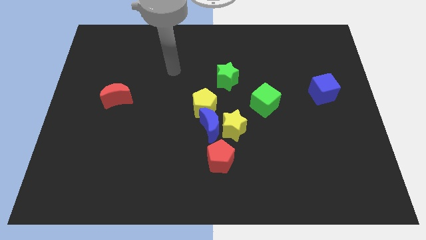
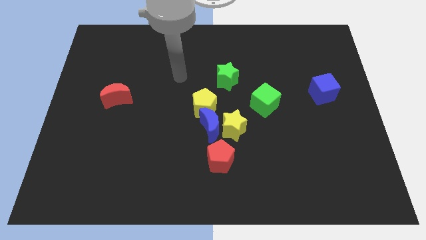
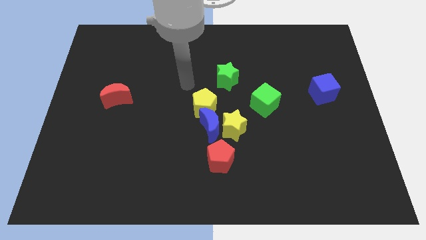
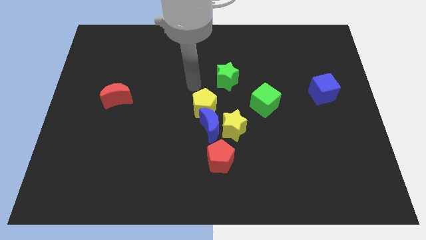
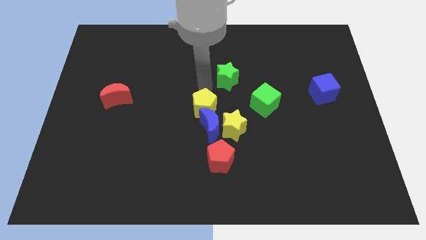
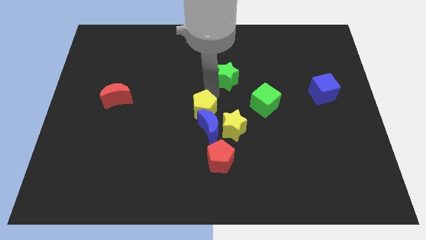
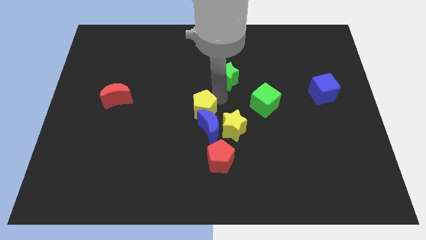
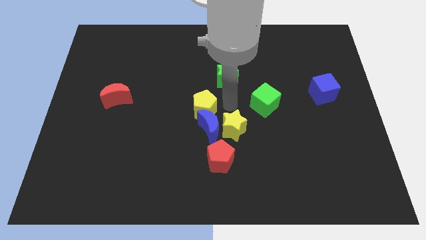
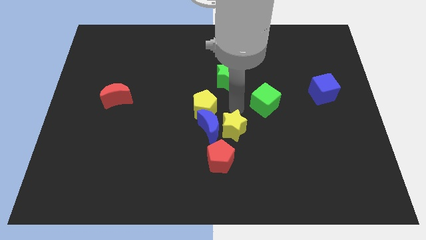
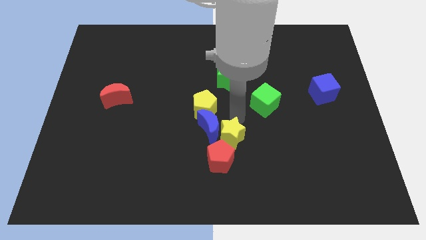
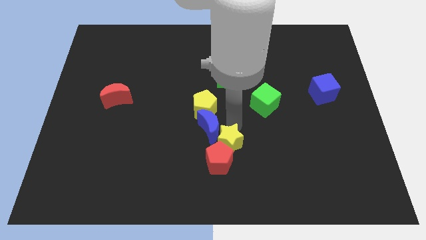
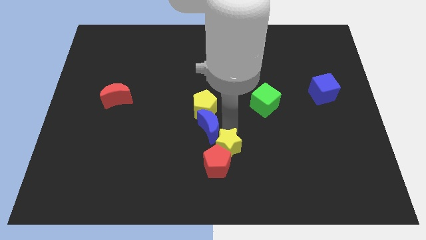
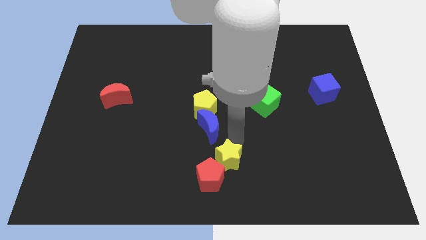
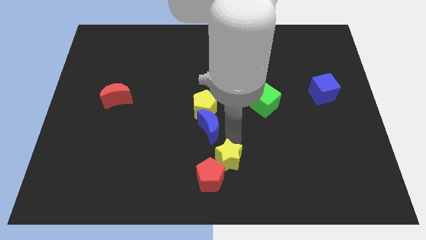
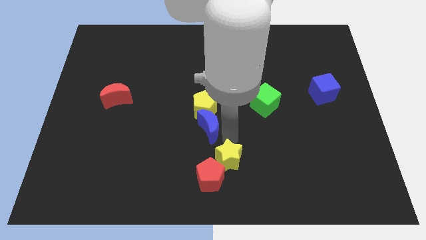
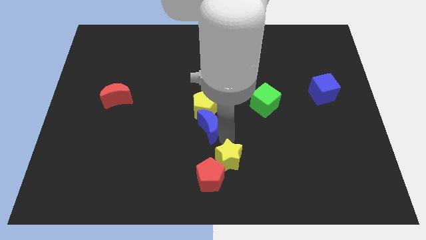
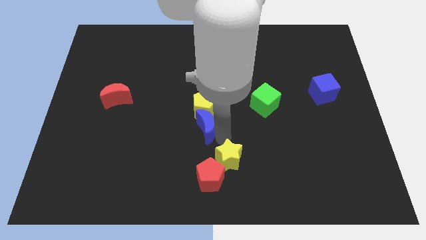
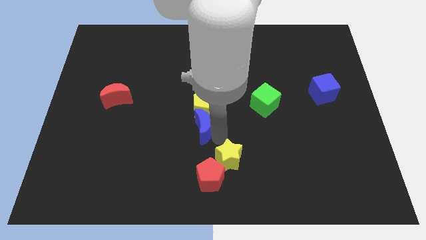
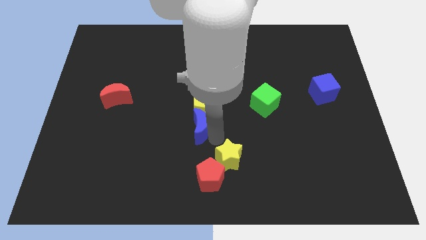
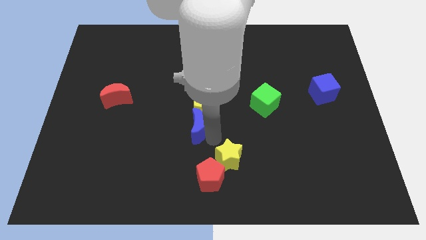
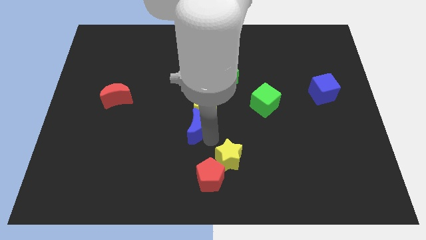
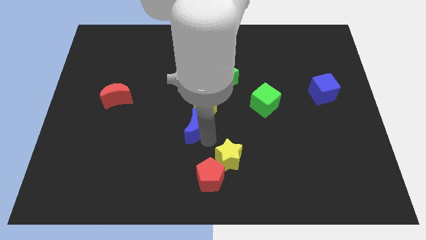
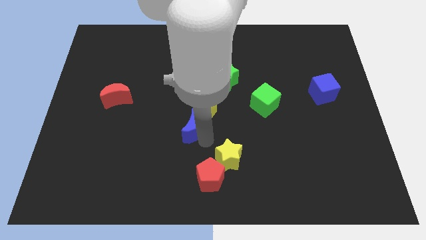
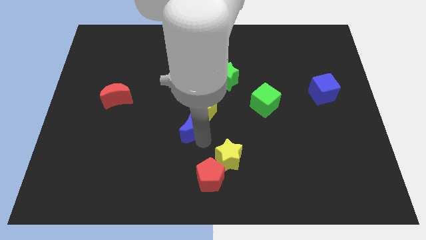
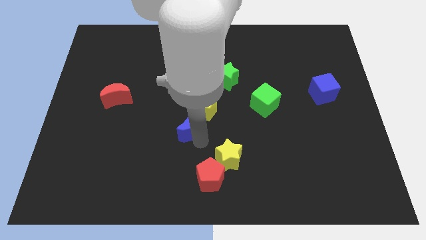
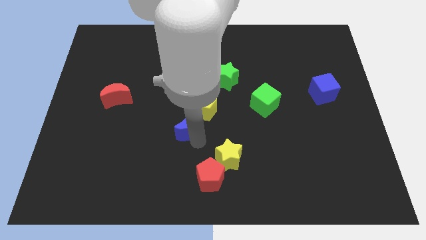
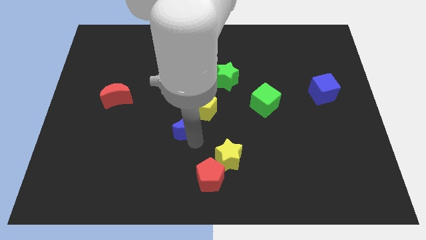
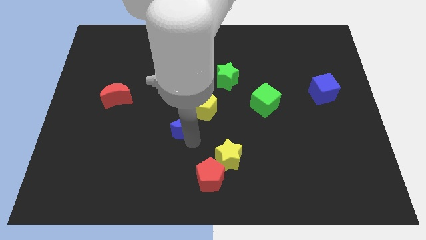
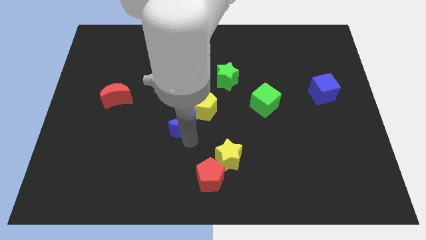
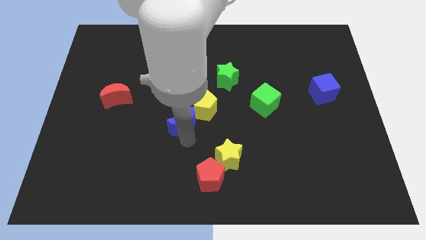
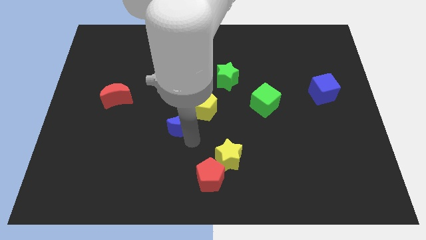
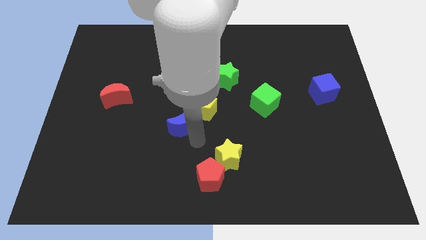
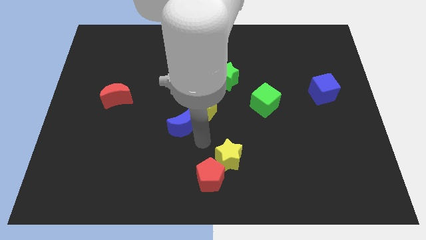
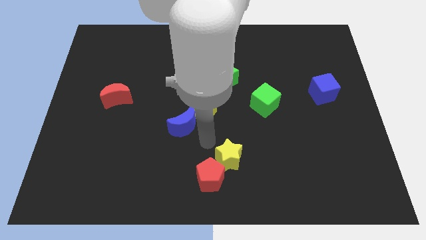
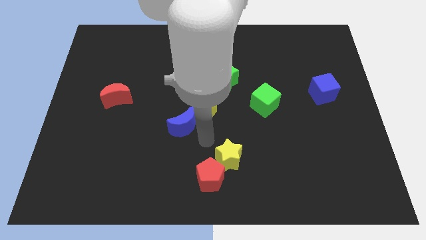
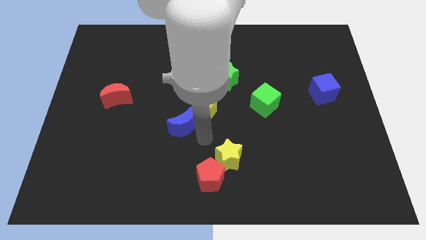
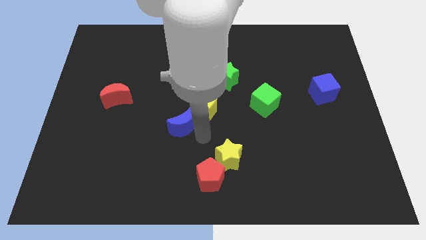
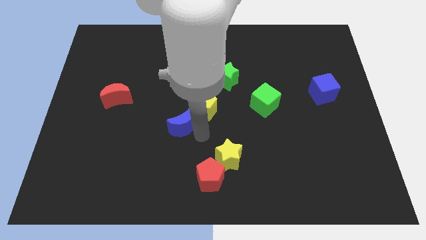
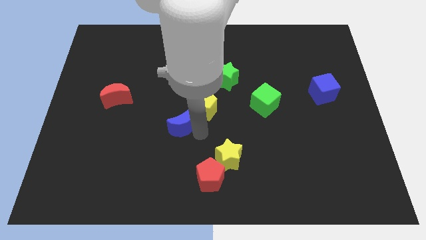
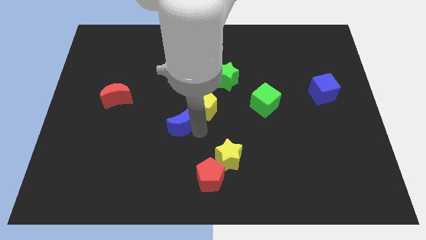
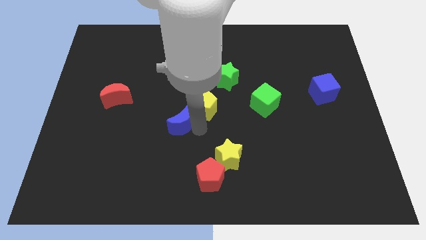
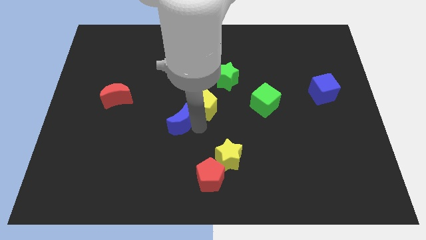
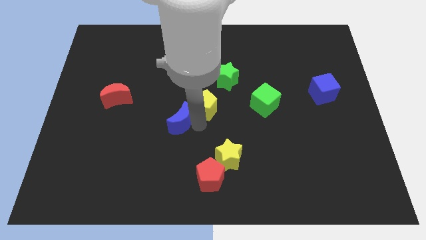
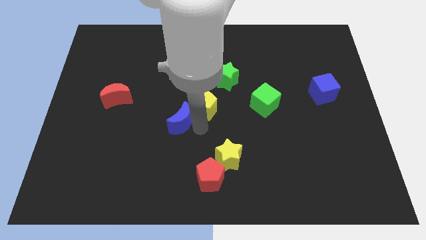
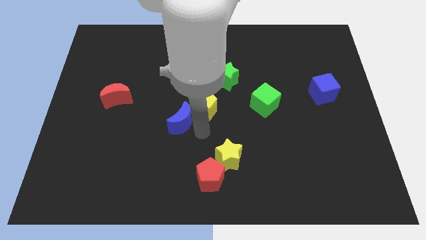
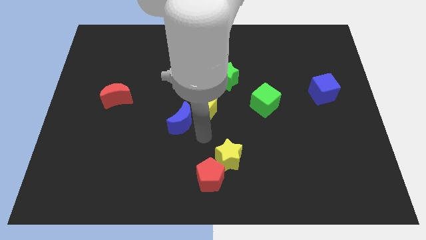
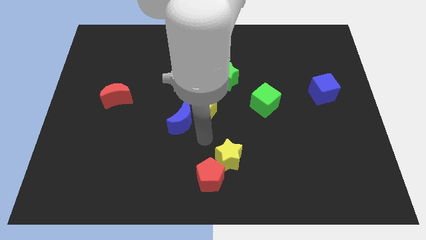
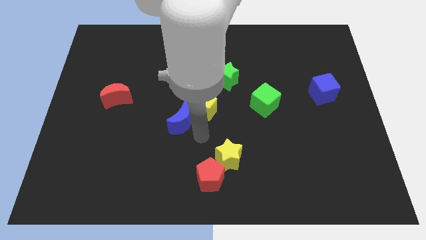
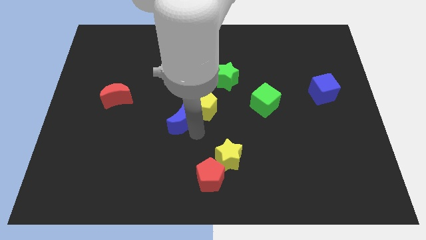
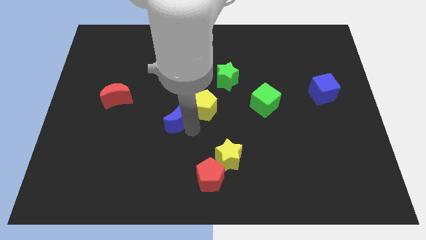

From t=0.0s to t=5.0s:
move the blue moon away from the group

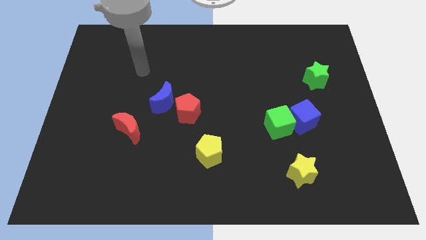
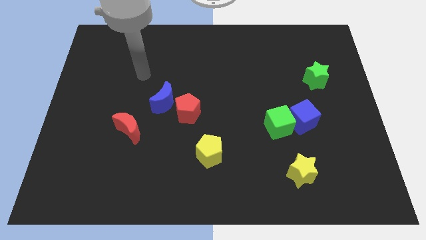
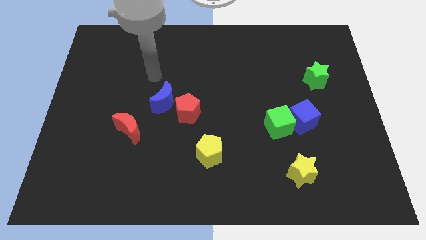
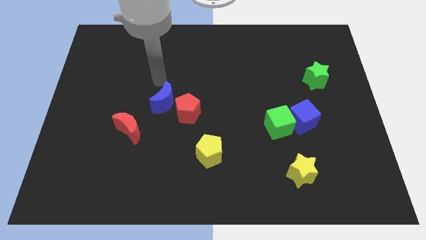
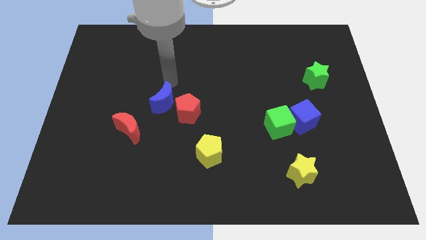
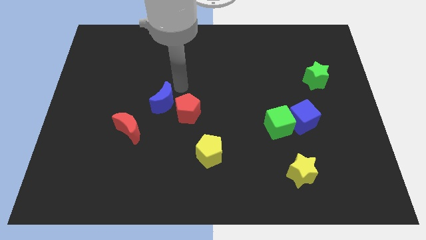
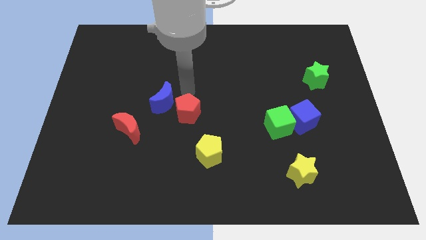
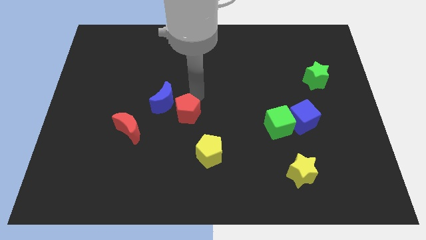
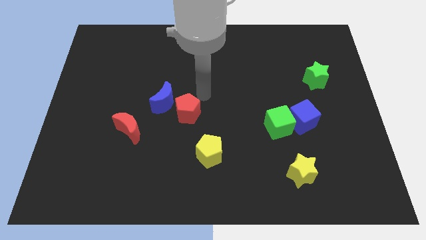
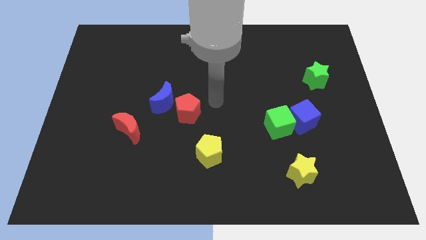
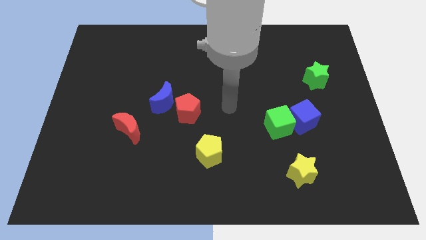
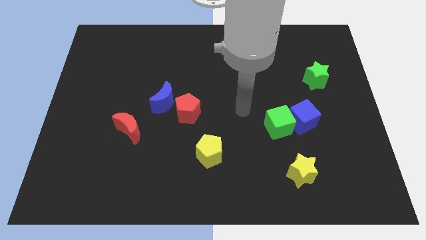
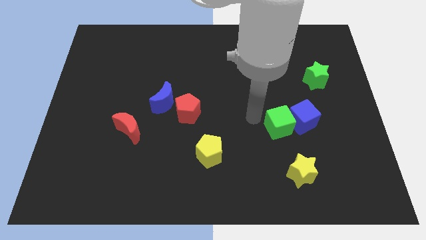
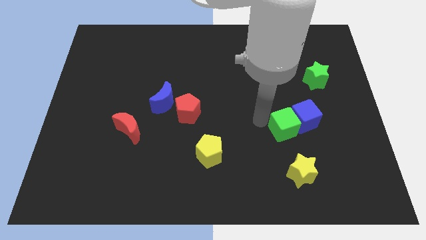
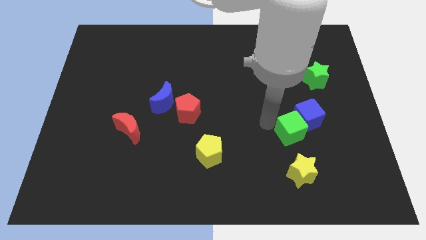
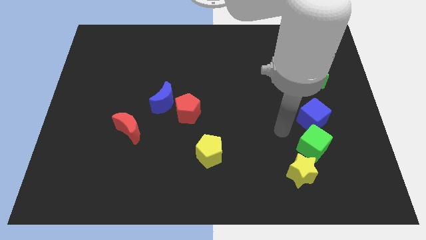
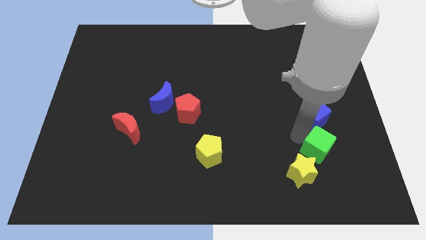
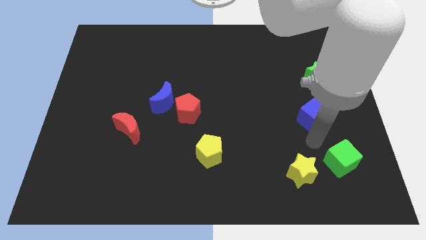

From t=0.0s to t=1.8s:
pull the blue cube apart from the green cube

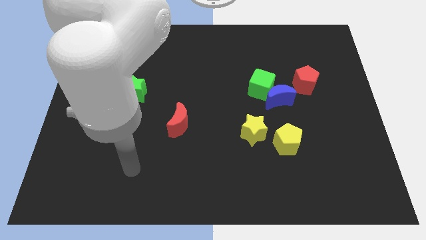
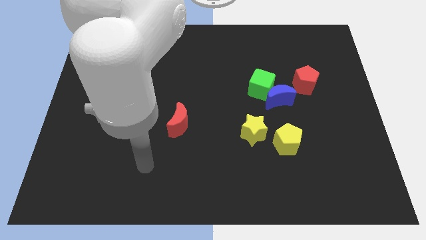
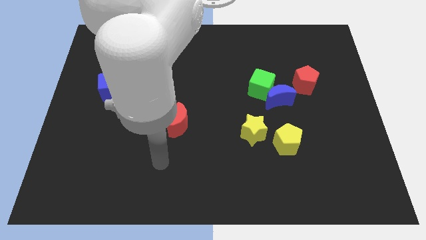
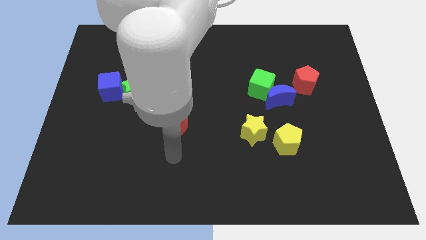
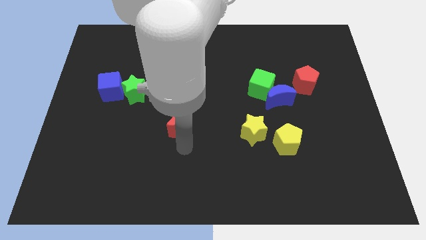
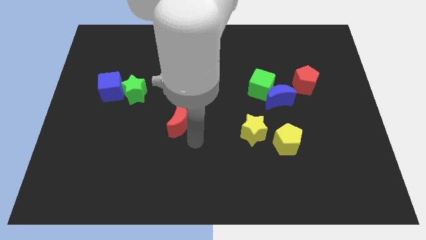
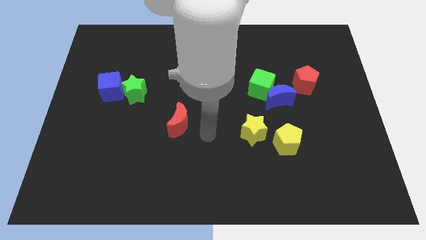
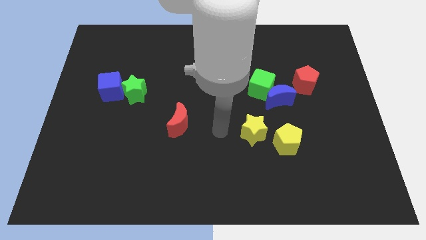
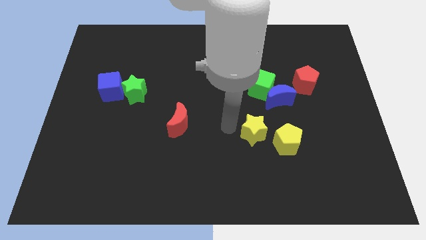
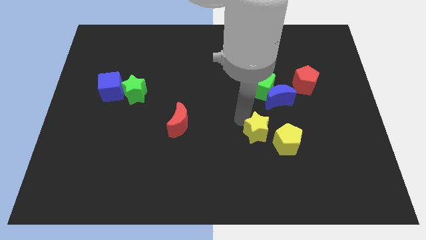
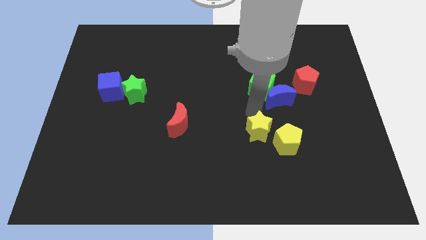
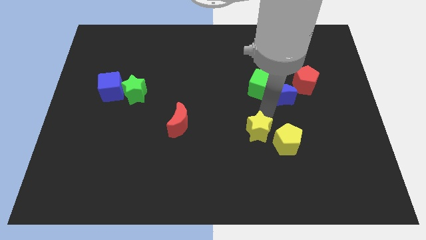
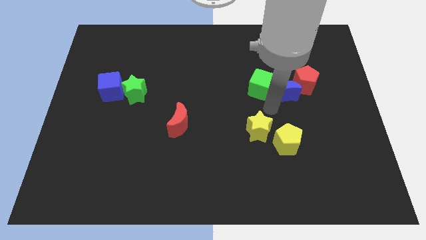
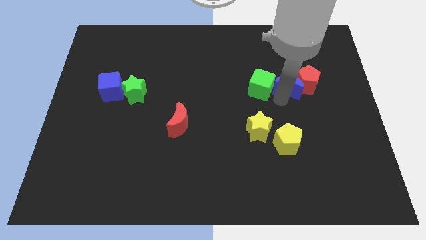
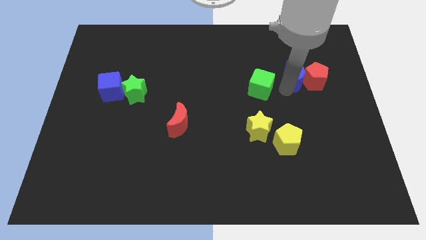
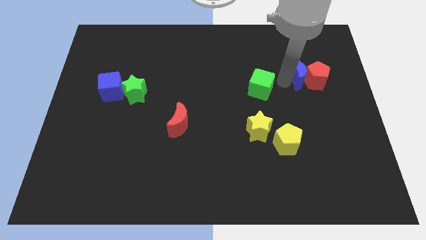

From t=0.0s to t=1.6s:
separate the green cube from the blue moon

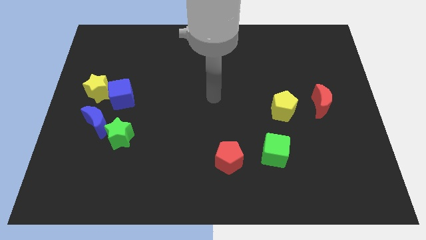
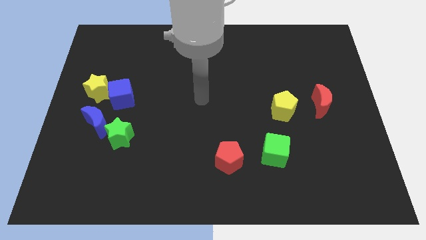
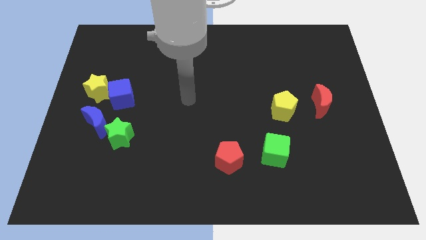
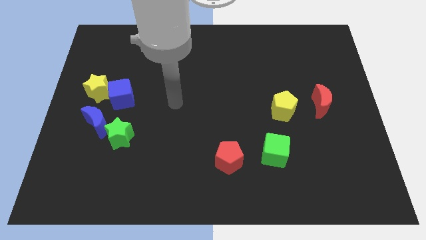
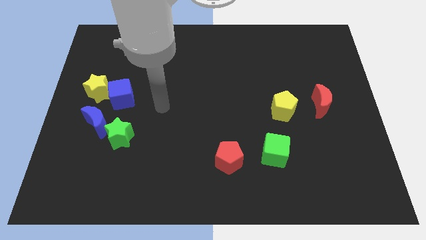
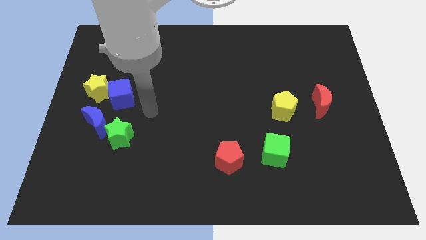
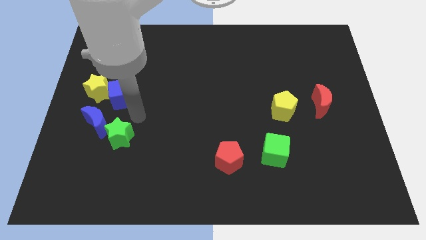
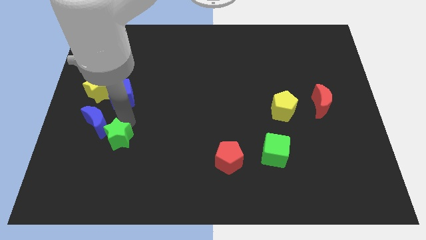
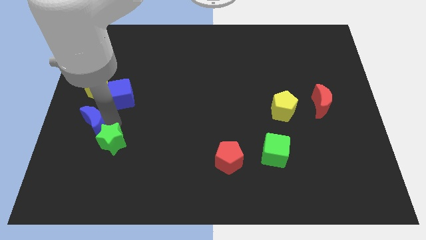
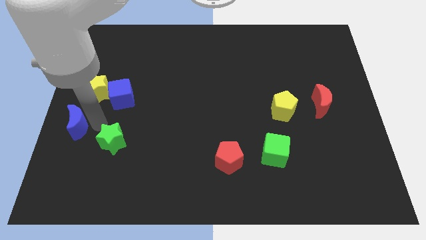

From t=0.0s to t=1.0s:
pull the green star apart from the blue moon
